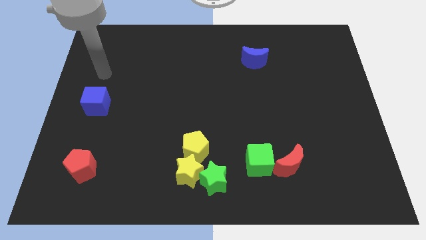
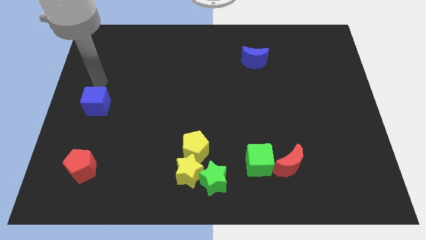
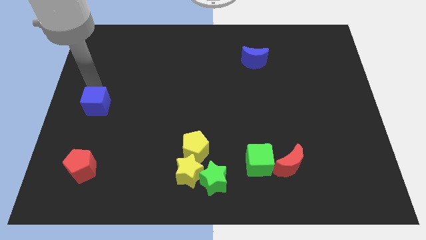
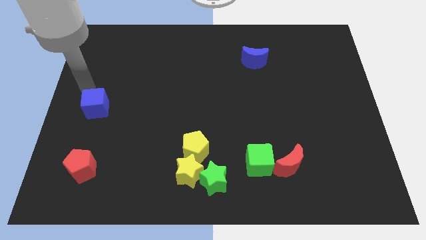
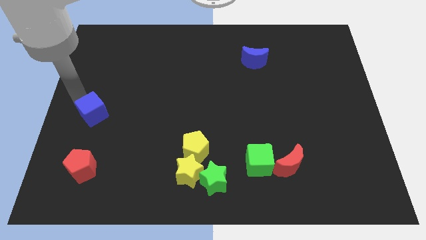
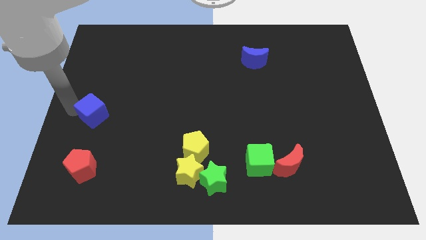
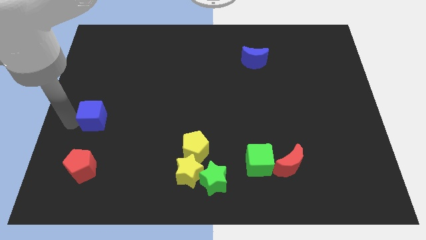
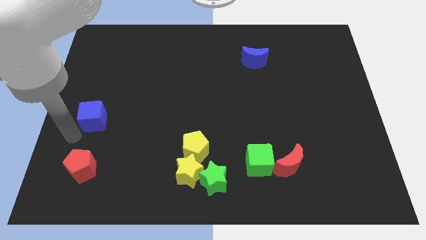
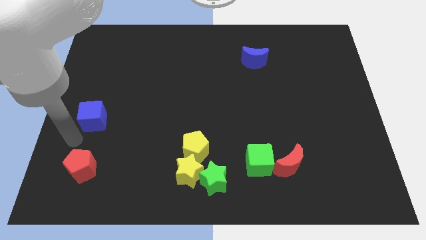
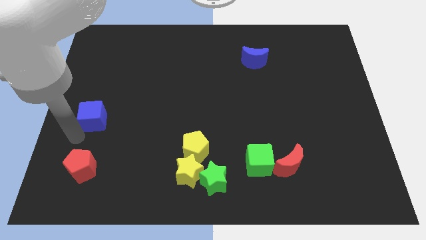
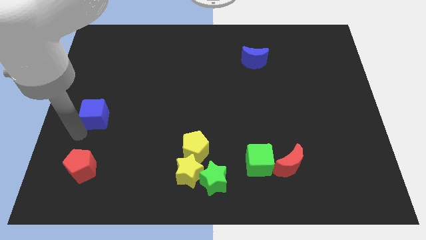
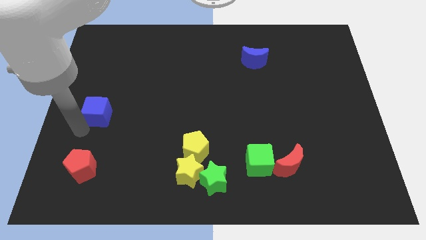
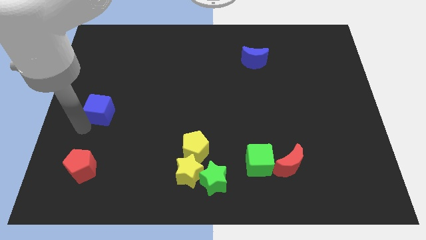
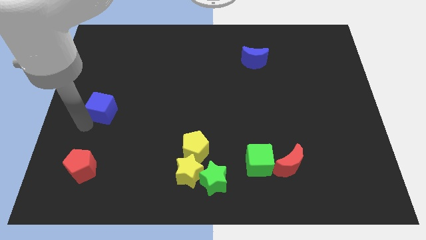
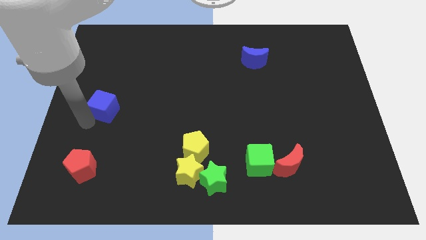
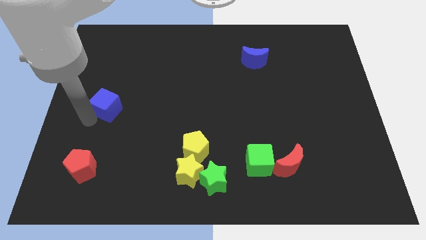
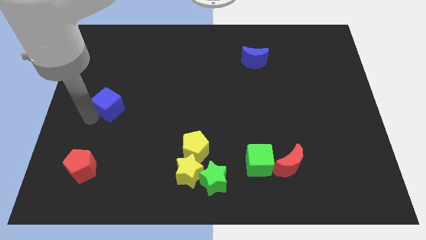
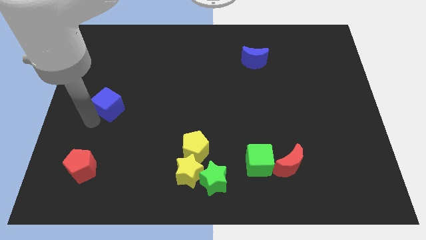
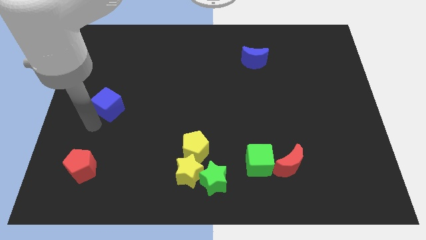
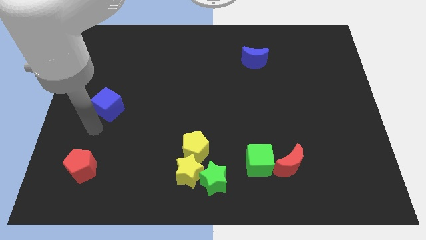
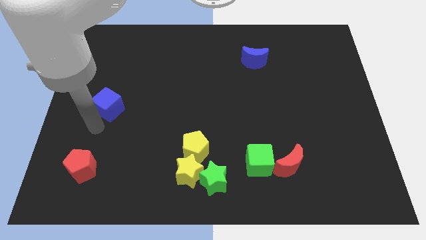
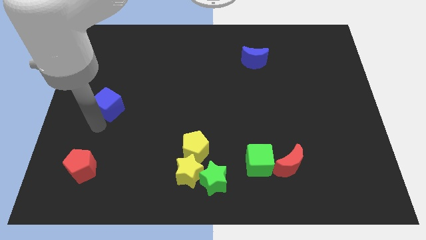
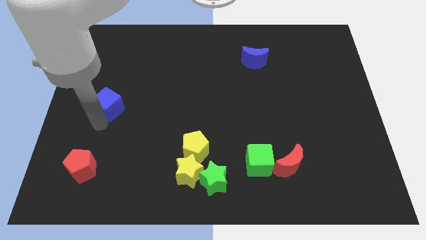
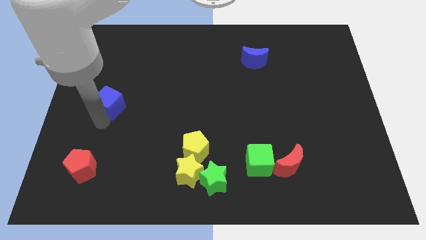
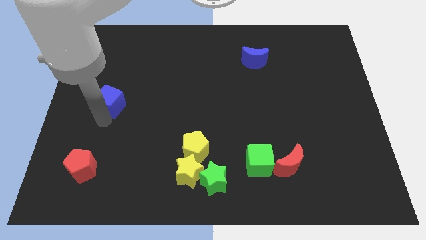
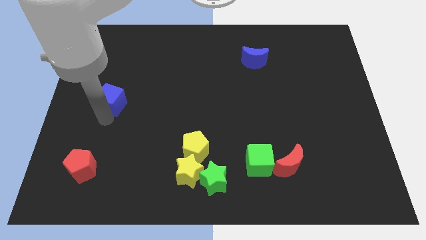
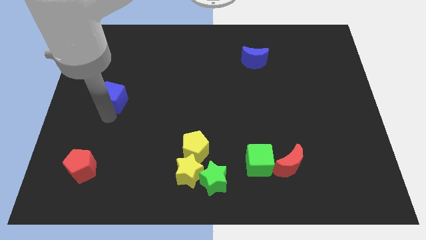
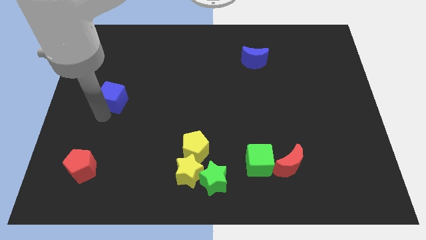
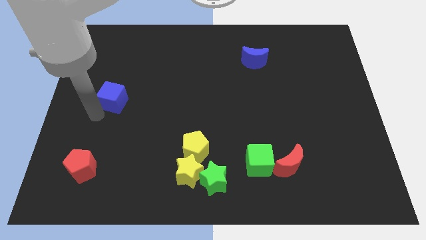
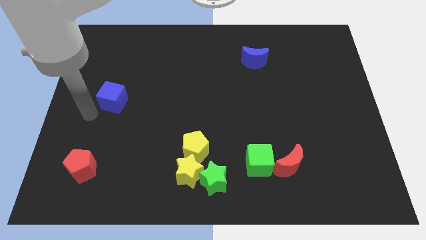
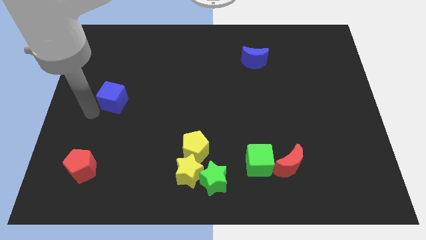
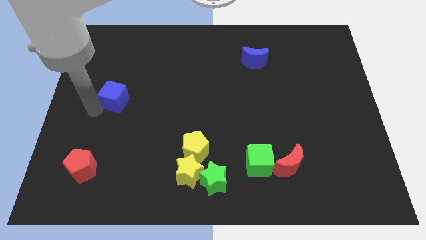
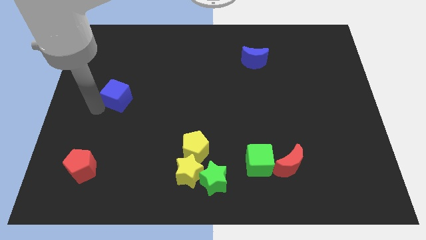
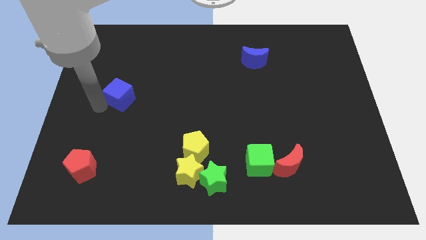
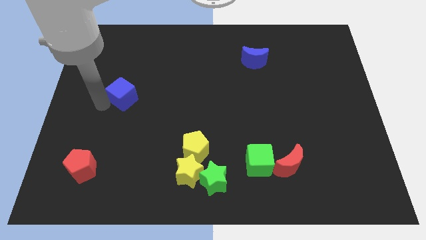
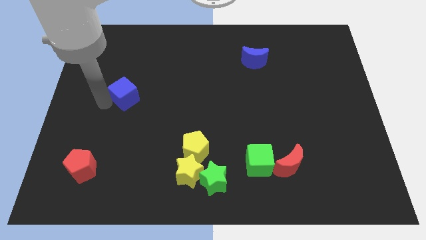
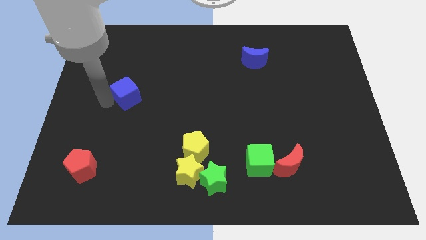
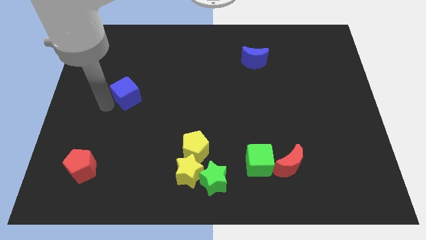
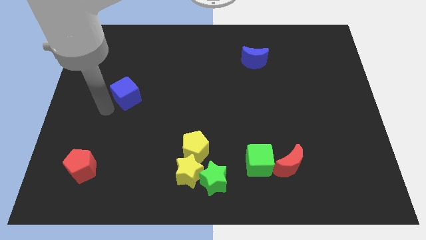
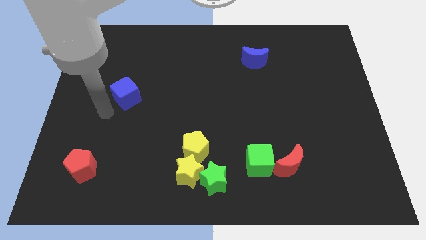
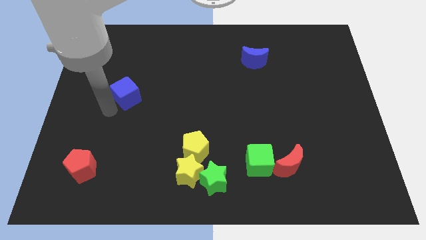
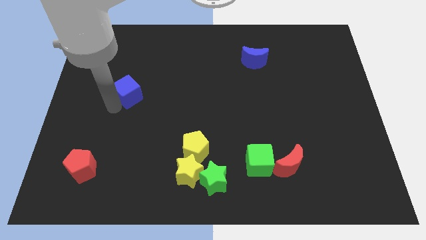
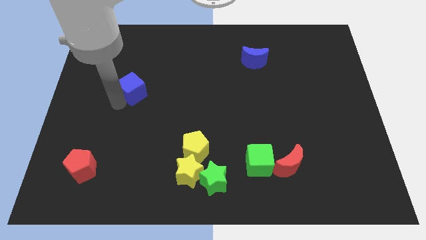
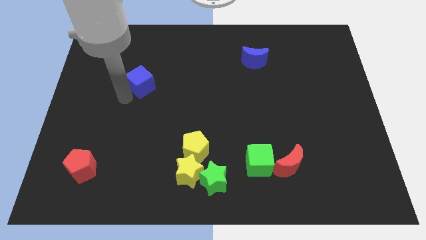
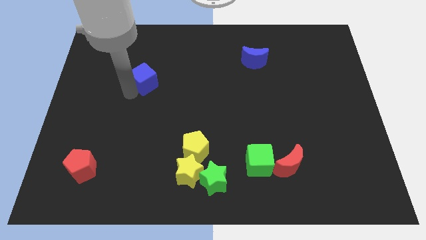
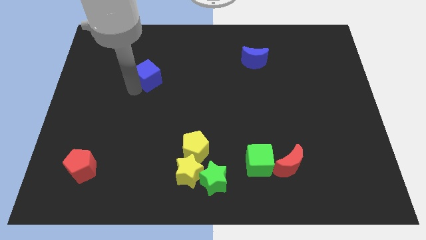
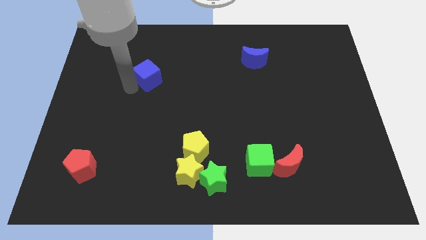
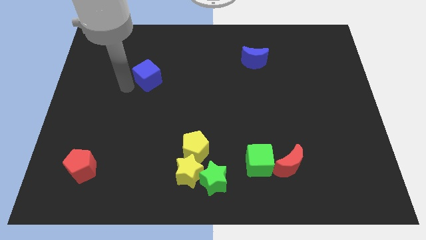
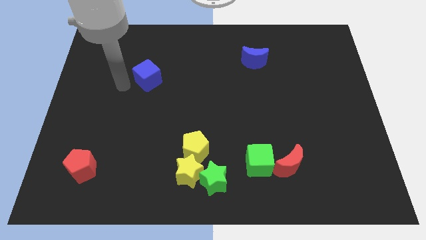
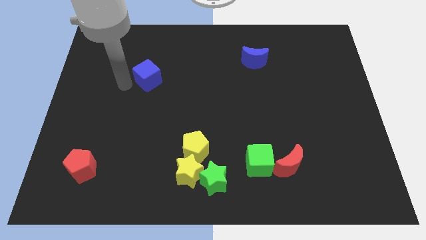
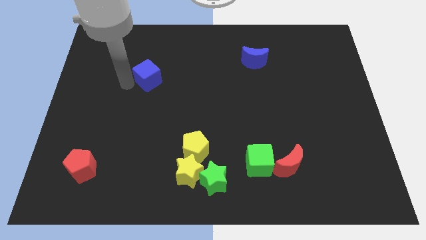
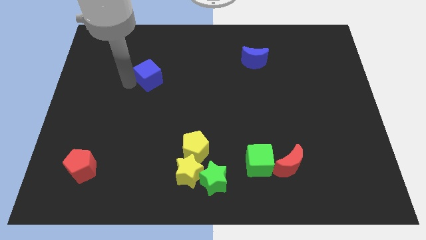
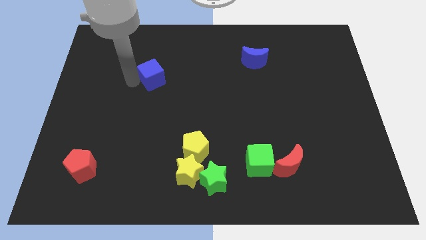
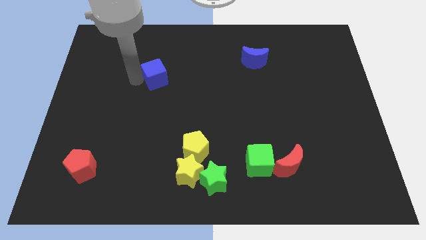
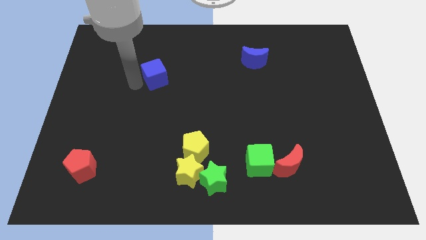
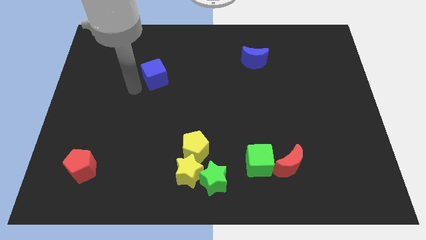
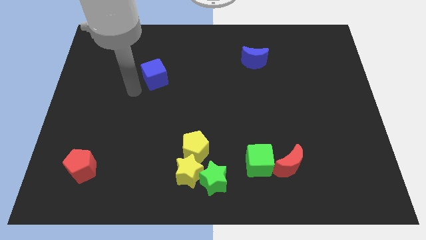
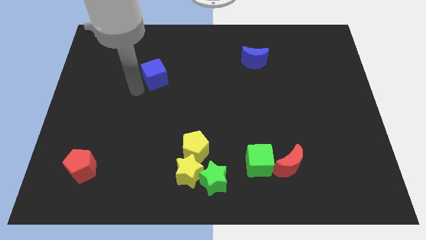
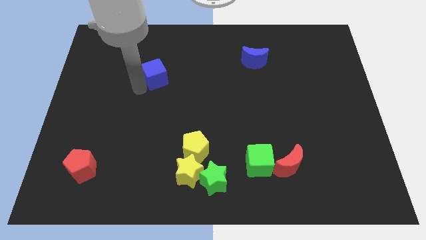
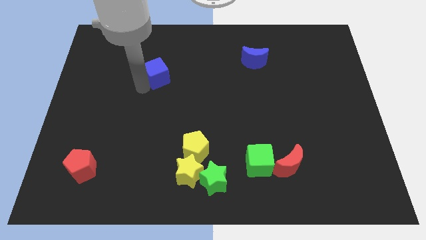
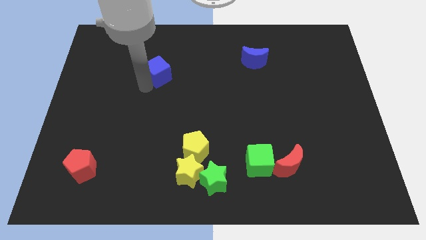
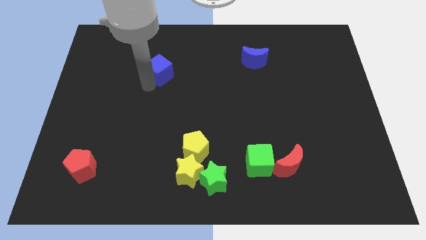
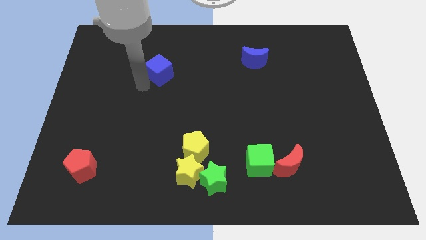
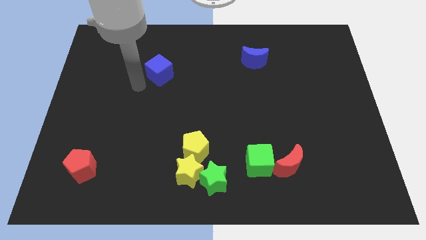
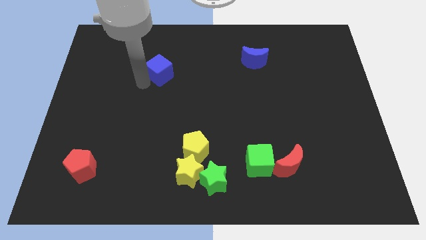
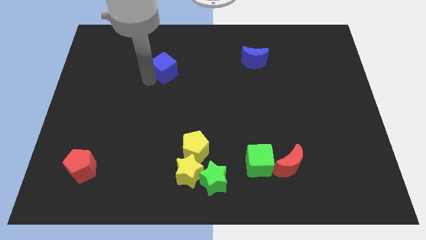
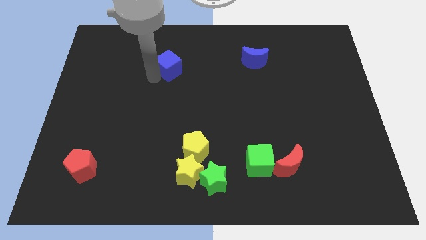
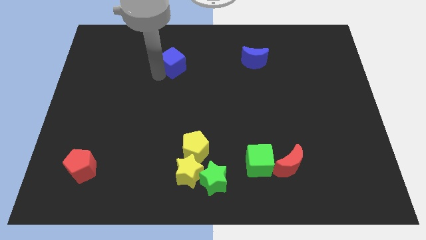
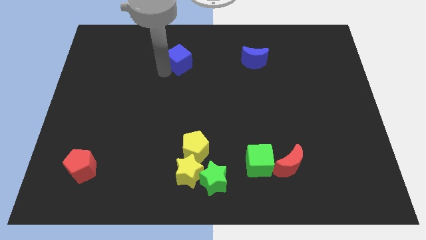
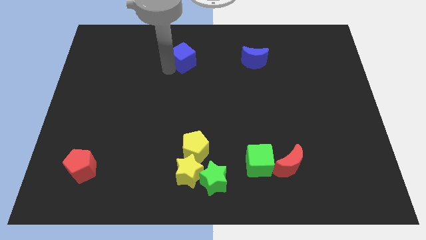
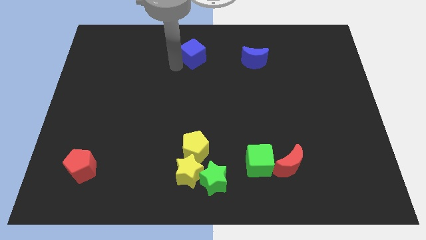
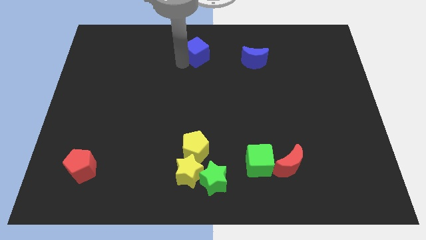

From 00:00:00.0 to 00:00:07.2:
slide the blue cube to the top side
